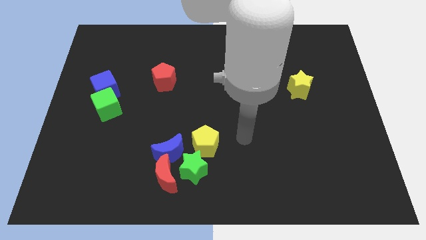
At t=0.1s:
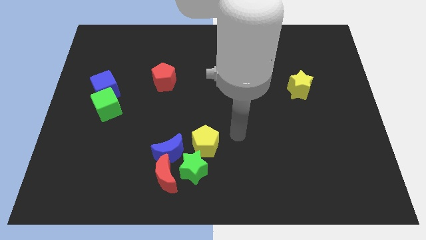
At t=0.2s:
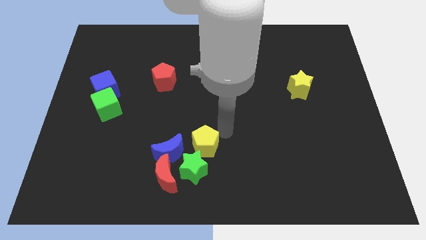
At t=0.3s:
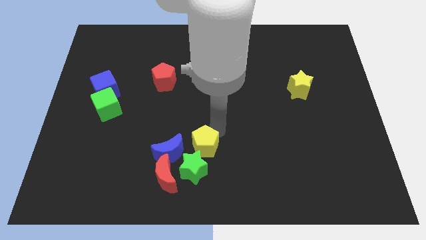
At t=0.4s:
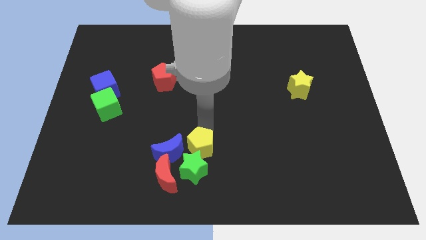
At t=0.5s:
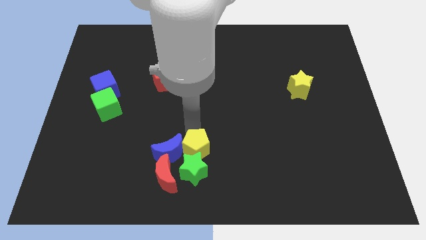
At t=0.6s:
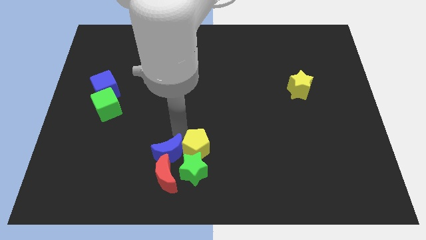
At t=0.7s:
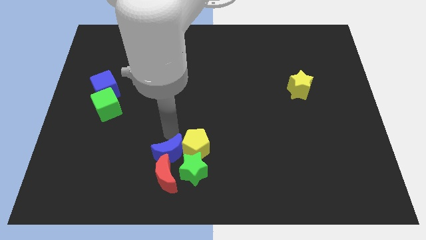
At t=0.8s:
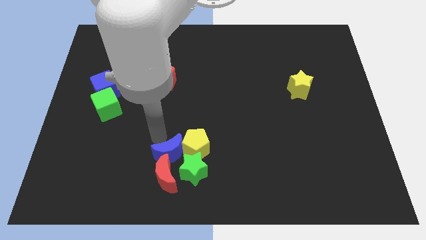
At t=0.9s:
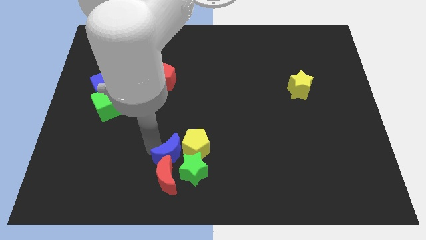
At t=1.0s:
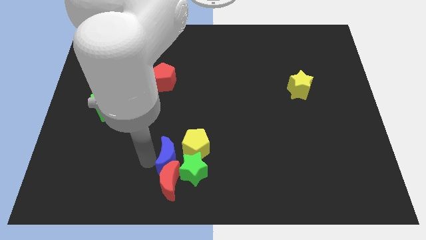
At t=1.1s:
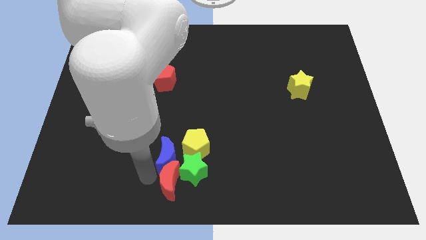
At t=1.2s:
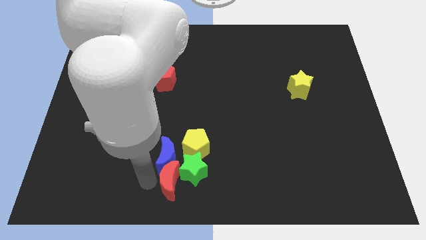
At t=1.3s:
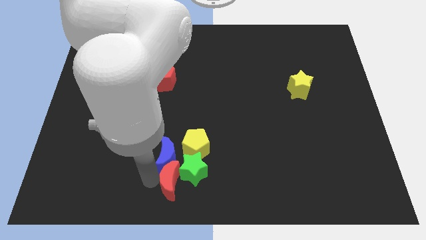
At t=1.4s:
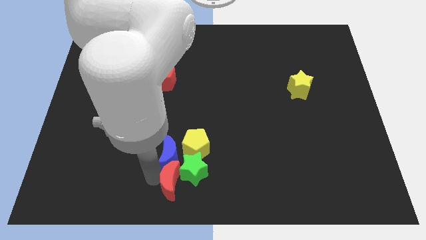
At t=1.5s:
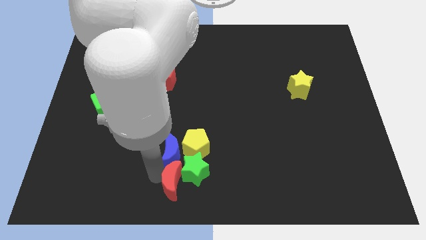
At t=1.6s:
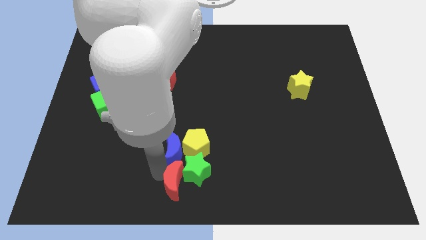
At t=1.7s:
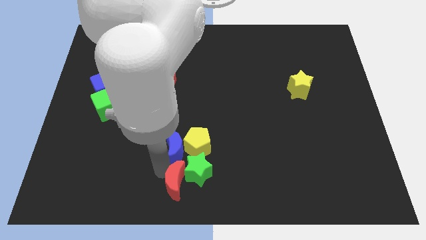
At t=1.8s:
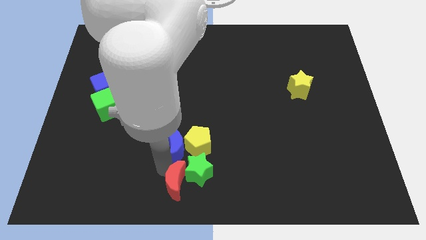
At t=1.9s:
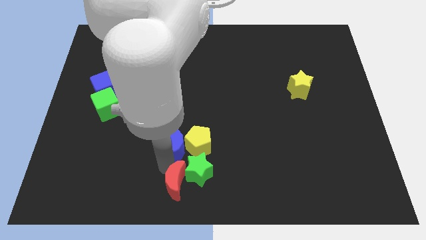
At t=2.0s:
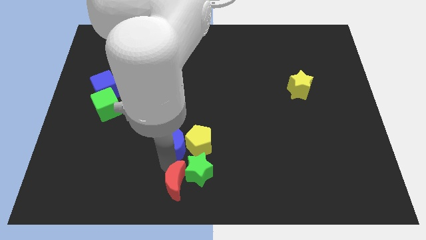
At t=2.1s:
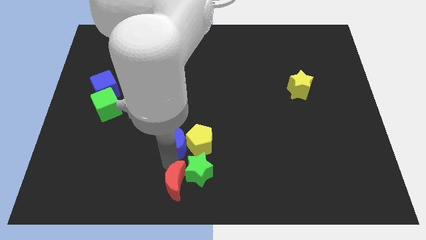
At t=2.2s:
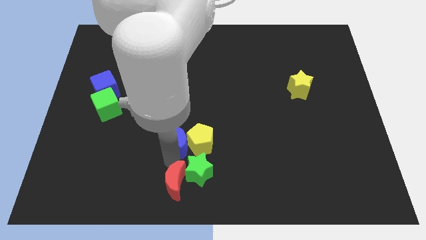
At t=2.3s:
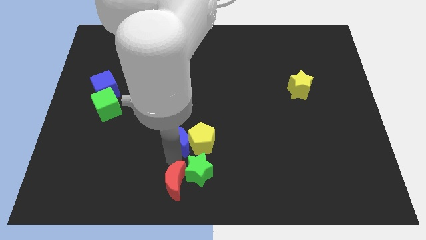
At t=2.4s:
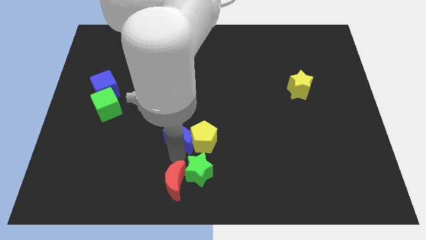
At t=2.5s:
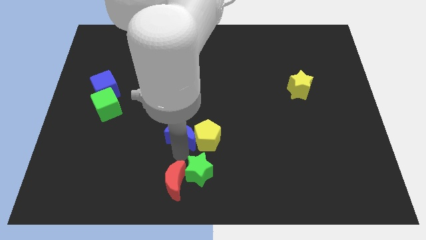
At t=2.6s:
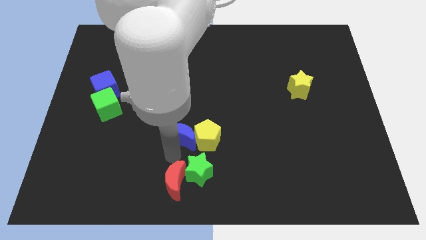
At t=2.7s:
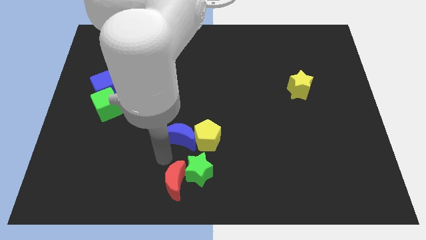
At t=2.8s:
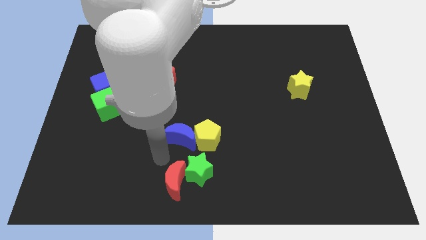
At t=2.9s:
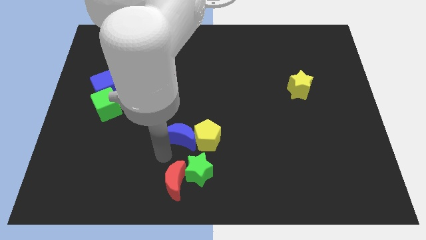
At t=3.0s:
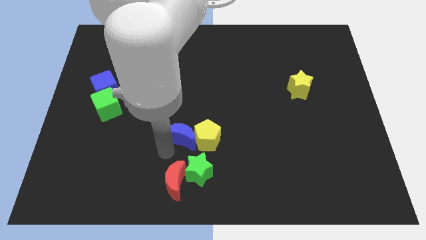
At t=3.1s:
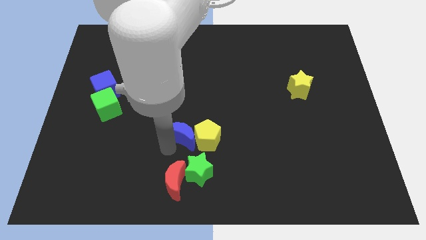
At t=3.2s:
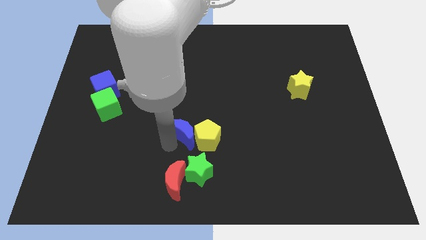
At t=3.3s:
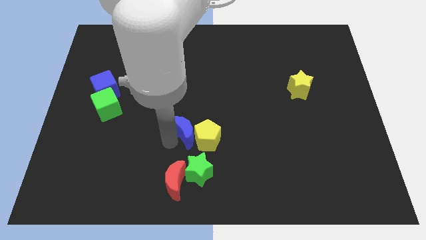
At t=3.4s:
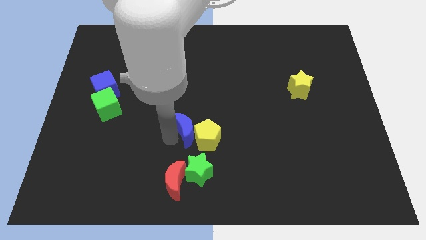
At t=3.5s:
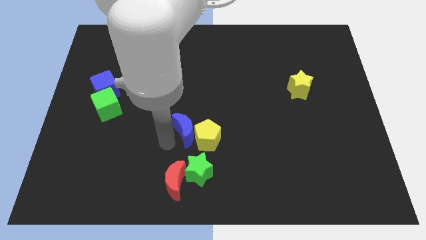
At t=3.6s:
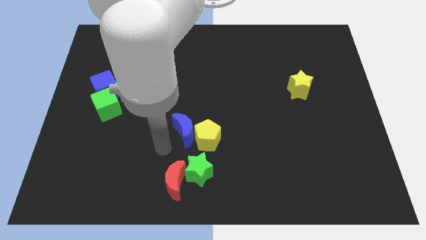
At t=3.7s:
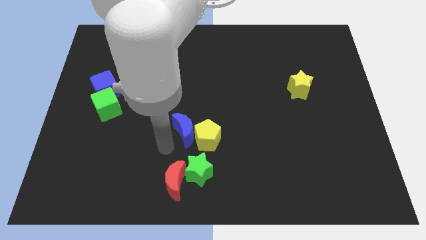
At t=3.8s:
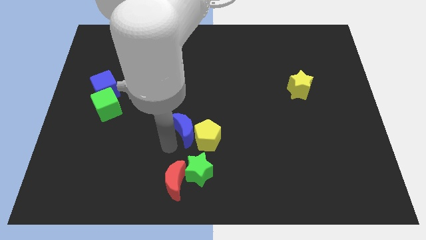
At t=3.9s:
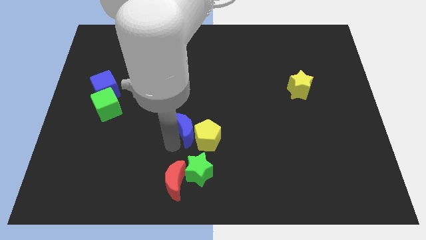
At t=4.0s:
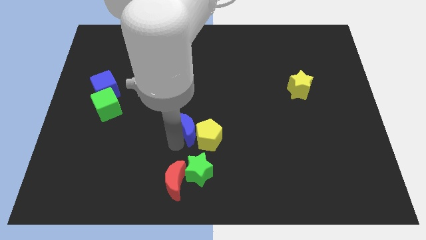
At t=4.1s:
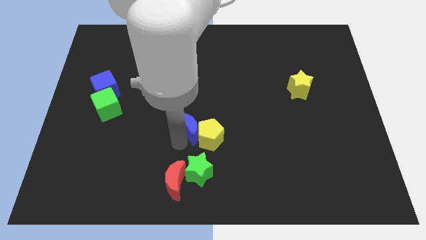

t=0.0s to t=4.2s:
move the blue moon a little bit up and then to the right

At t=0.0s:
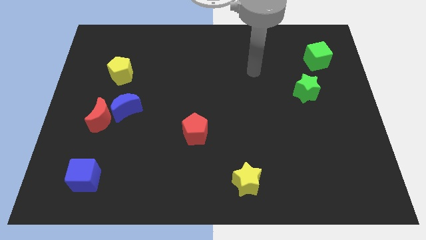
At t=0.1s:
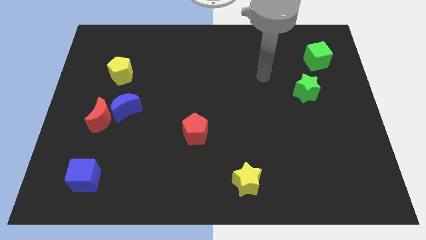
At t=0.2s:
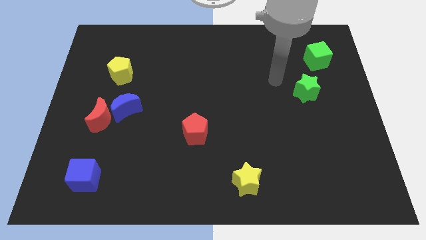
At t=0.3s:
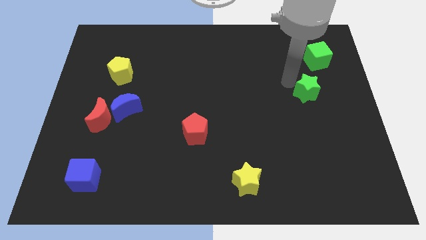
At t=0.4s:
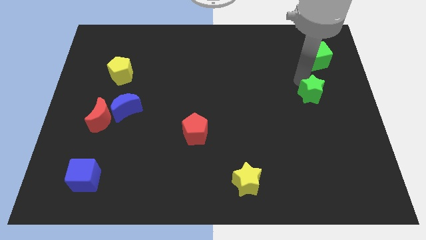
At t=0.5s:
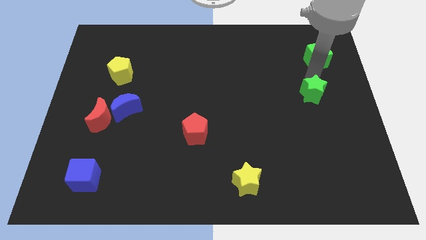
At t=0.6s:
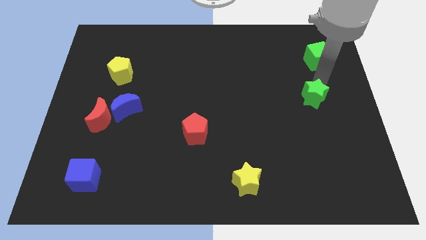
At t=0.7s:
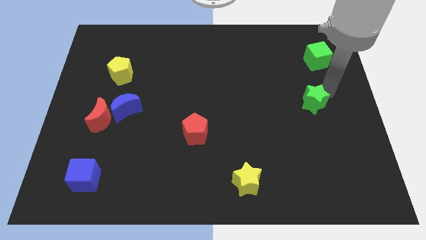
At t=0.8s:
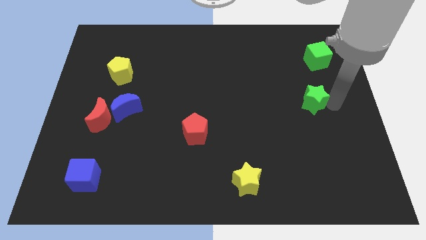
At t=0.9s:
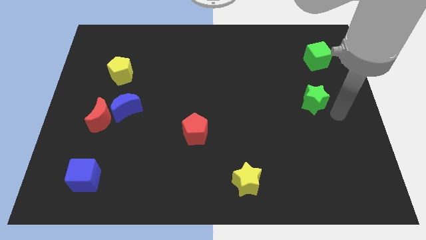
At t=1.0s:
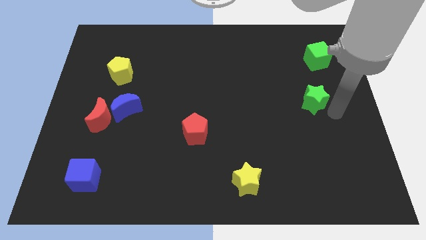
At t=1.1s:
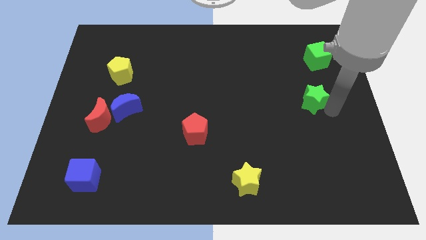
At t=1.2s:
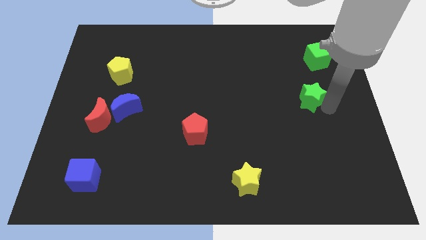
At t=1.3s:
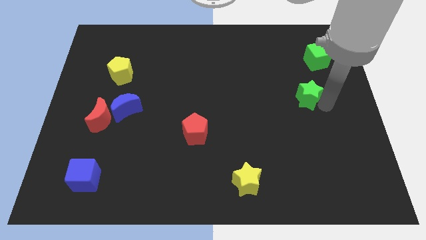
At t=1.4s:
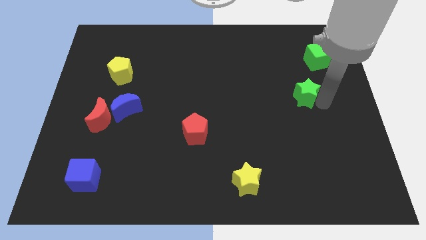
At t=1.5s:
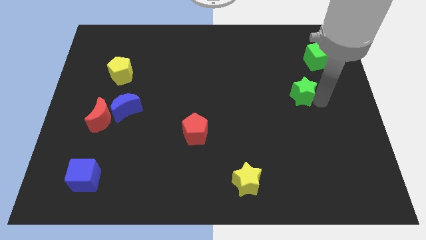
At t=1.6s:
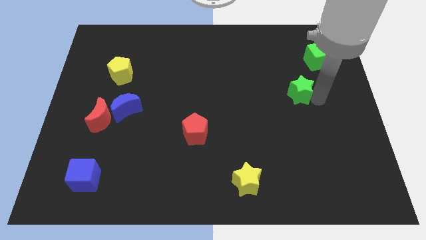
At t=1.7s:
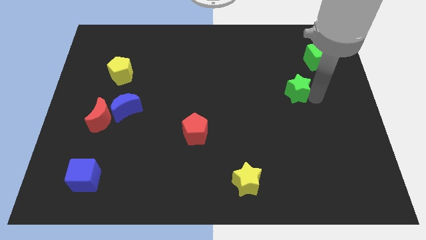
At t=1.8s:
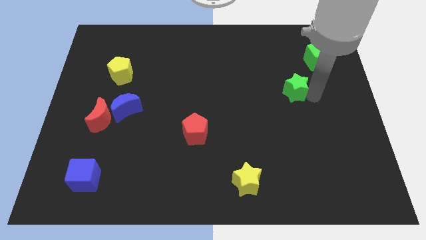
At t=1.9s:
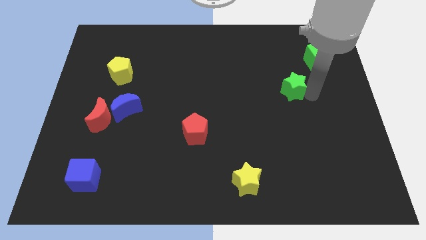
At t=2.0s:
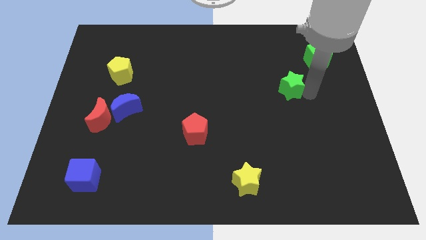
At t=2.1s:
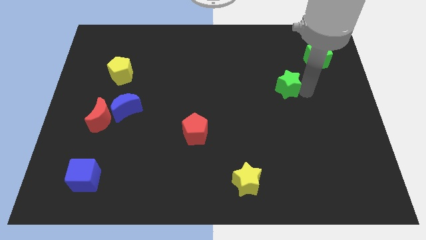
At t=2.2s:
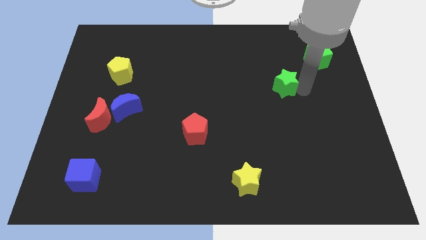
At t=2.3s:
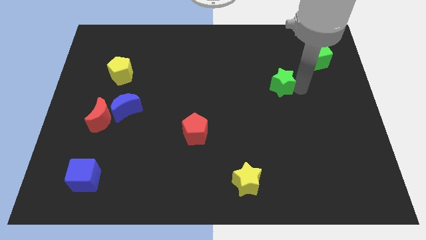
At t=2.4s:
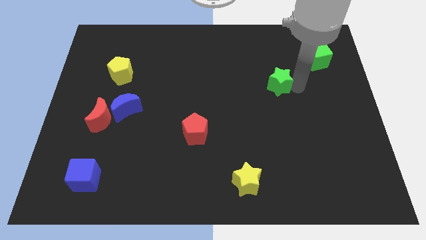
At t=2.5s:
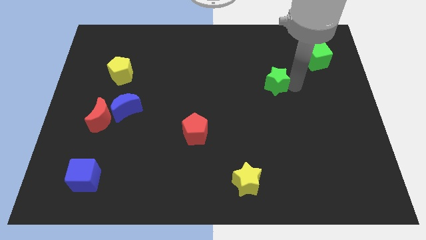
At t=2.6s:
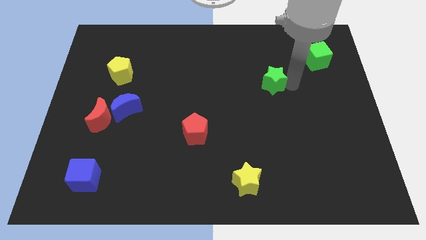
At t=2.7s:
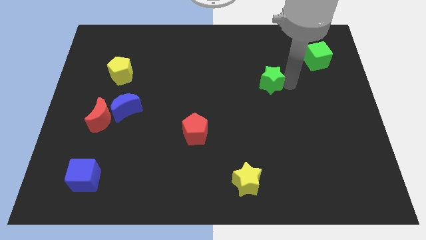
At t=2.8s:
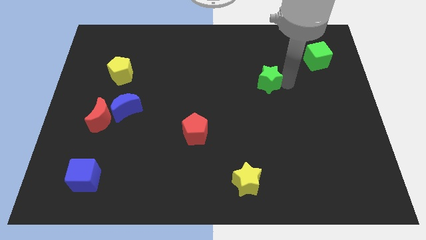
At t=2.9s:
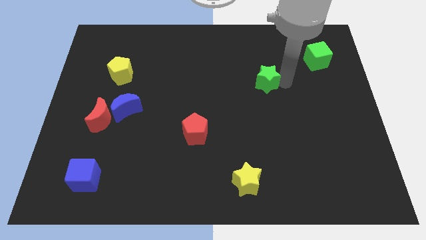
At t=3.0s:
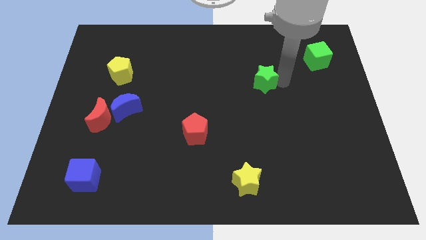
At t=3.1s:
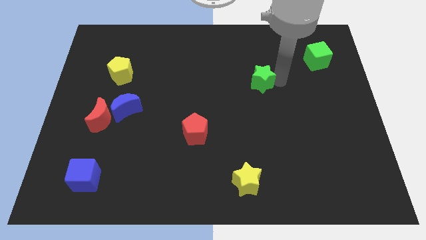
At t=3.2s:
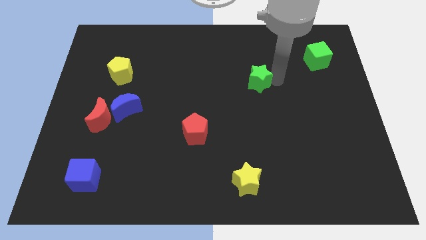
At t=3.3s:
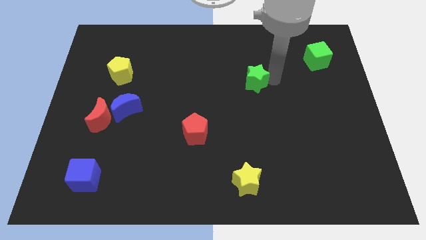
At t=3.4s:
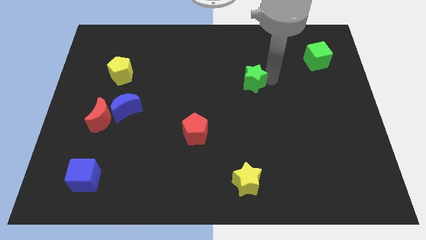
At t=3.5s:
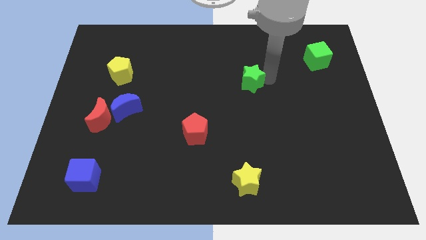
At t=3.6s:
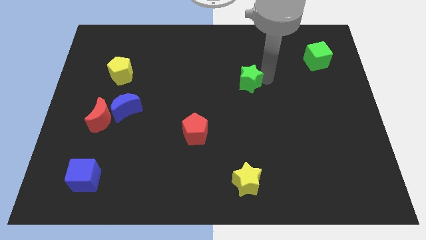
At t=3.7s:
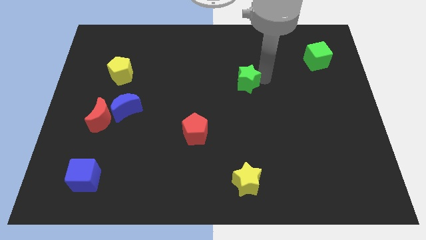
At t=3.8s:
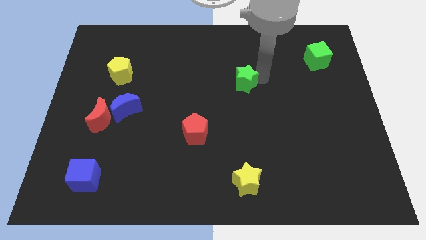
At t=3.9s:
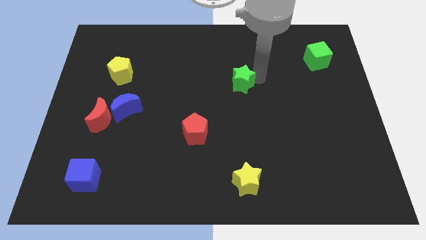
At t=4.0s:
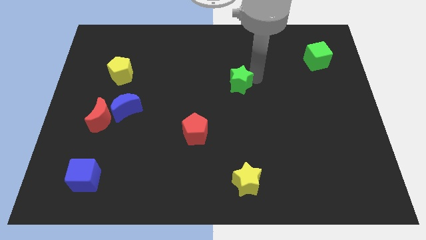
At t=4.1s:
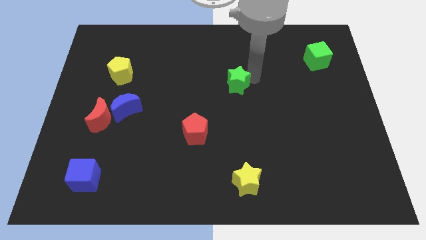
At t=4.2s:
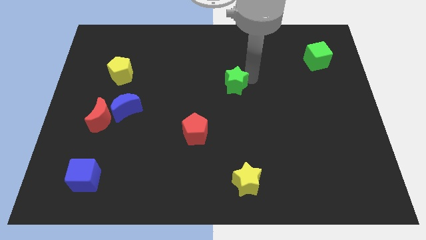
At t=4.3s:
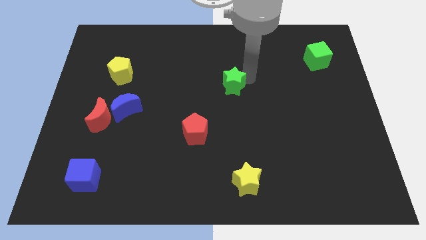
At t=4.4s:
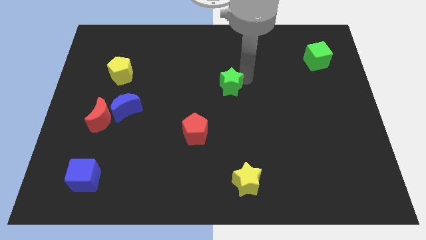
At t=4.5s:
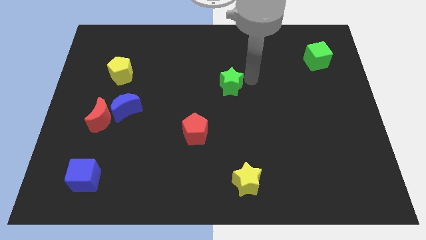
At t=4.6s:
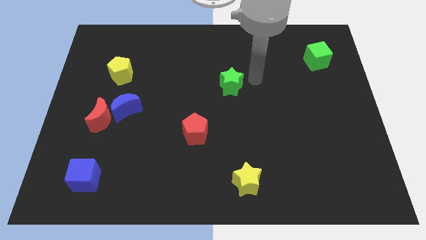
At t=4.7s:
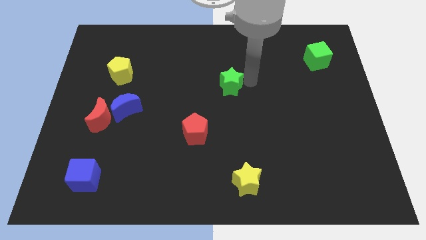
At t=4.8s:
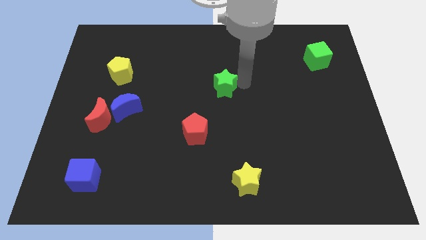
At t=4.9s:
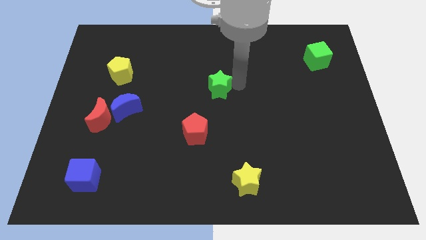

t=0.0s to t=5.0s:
move the green star left
